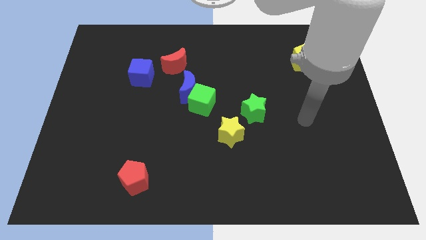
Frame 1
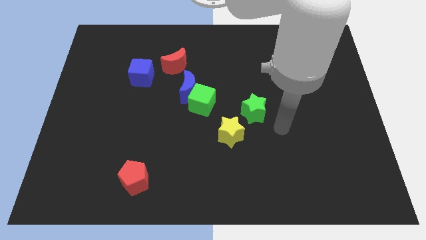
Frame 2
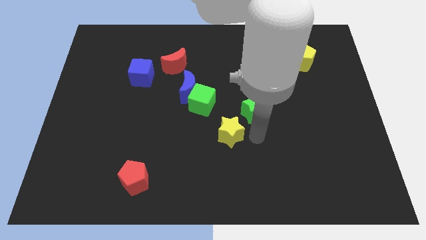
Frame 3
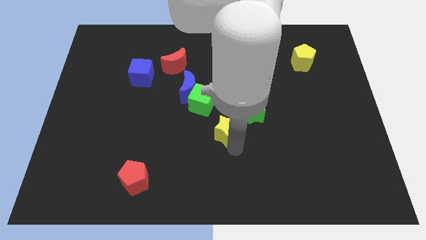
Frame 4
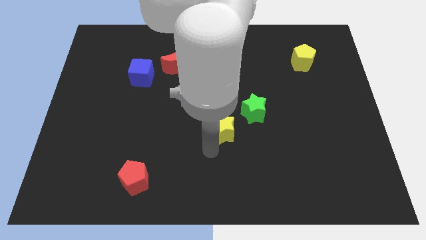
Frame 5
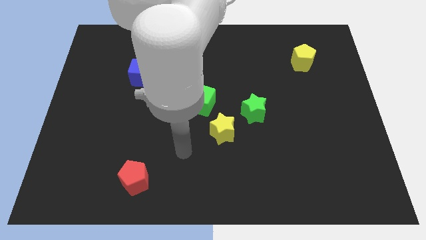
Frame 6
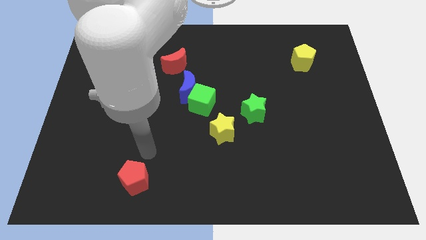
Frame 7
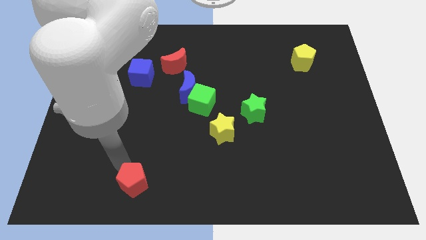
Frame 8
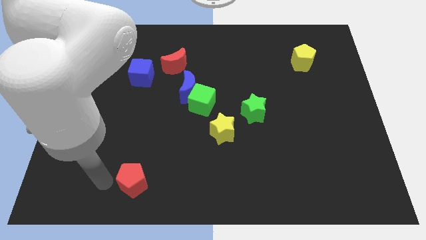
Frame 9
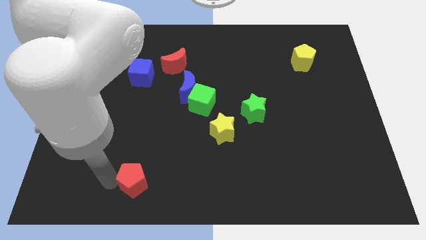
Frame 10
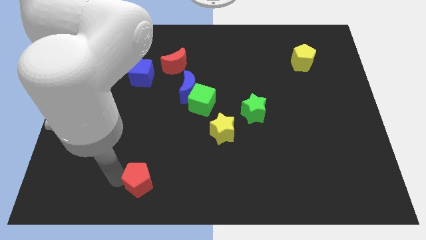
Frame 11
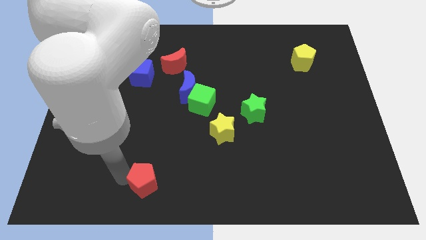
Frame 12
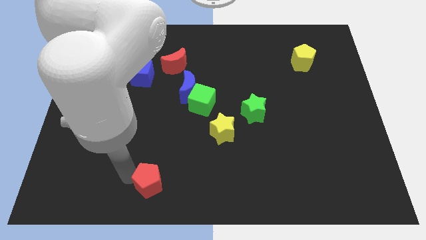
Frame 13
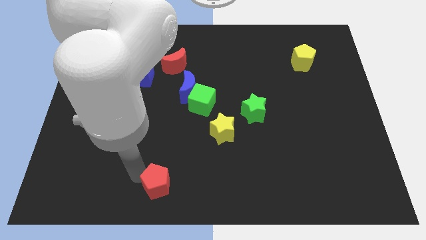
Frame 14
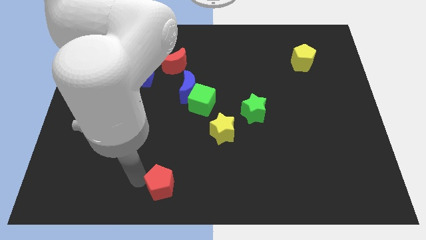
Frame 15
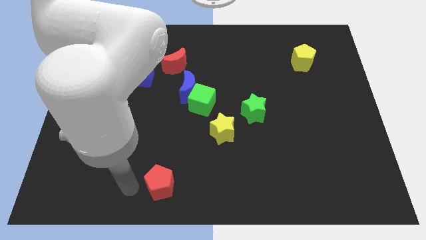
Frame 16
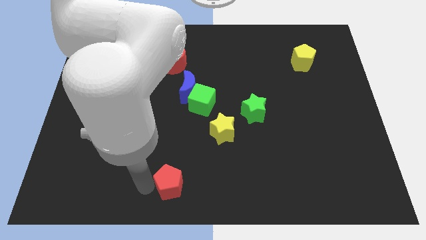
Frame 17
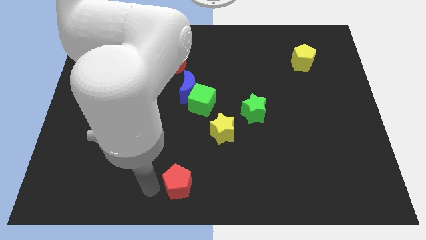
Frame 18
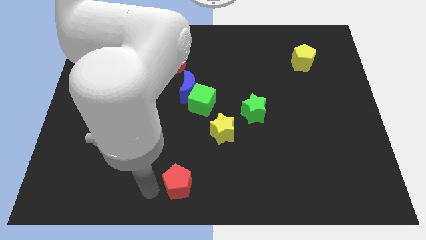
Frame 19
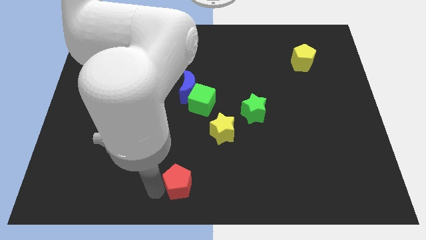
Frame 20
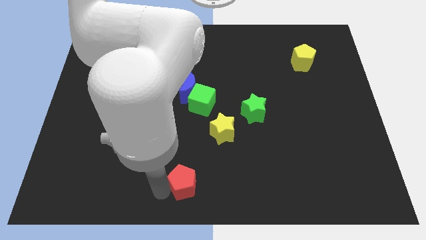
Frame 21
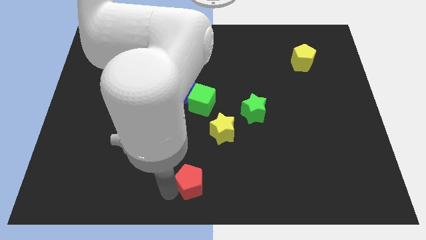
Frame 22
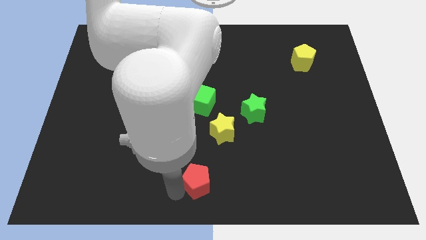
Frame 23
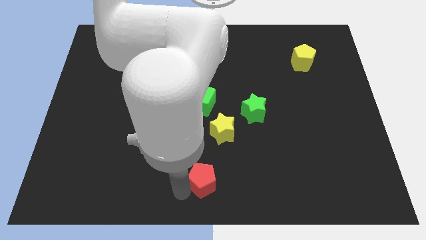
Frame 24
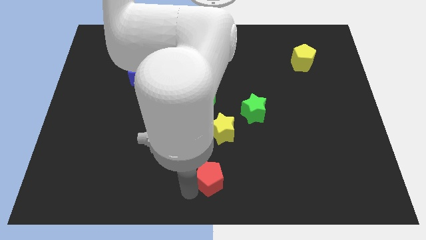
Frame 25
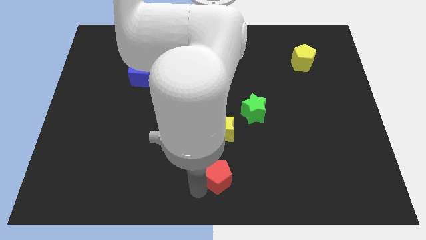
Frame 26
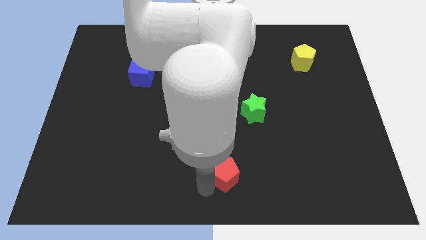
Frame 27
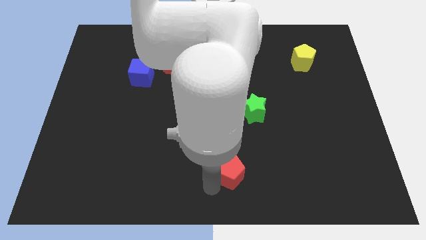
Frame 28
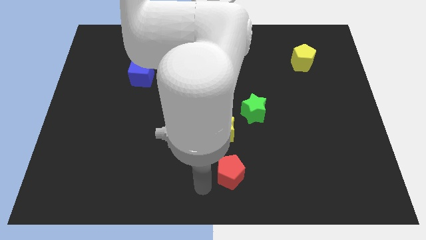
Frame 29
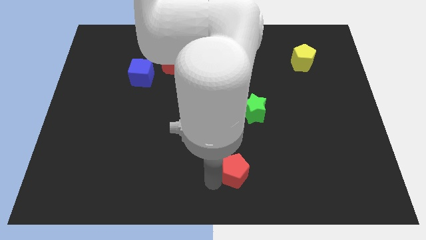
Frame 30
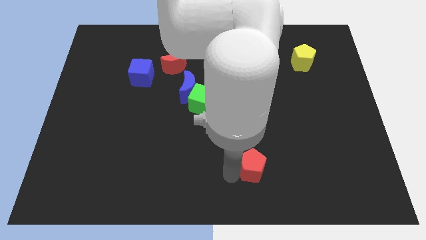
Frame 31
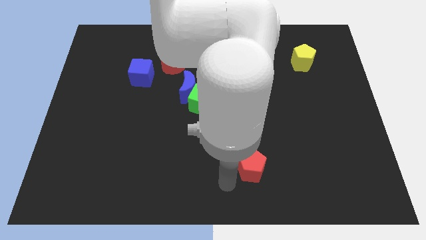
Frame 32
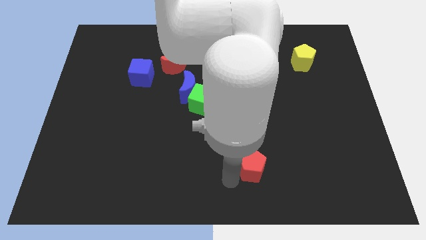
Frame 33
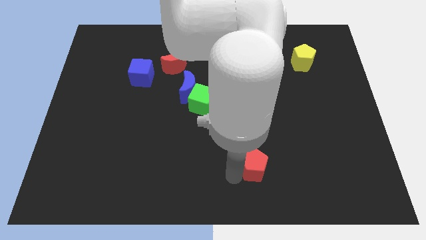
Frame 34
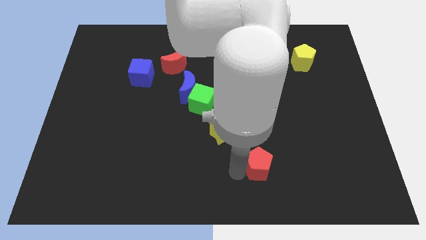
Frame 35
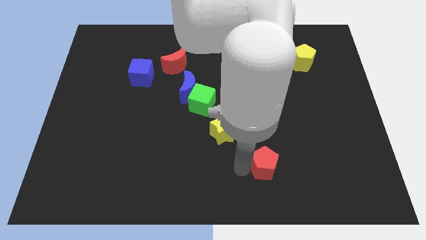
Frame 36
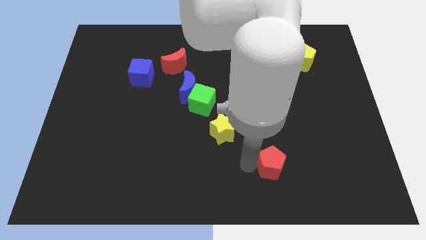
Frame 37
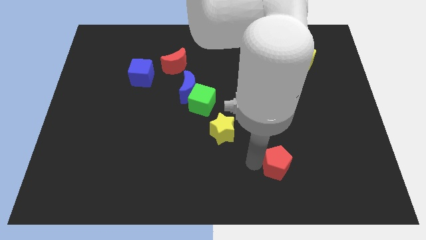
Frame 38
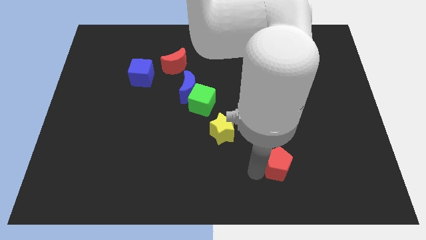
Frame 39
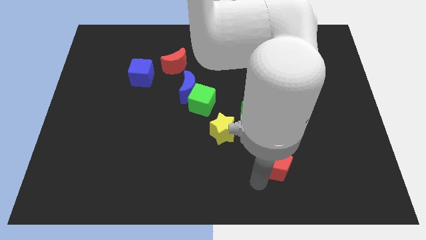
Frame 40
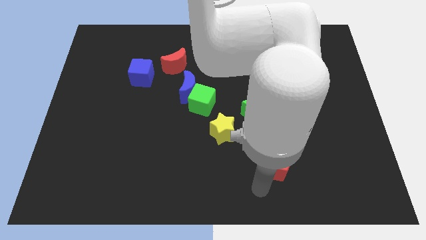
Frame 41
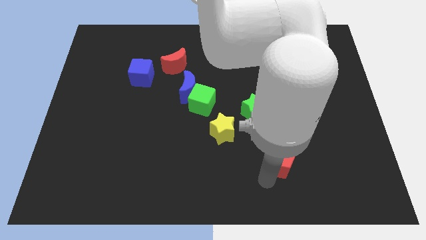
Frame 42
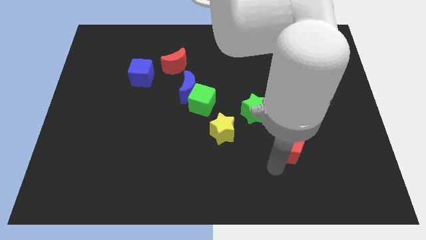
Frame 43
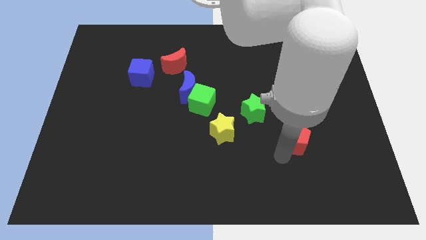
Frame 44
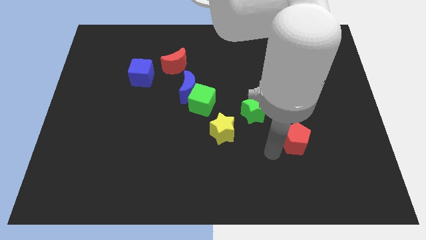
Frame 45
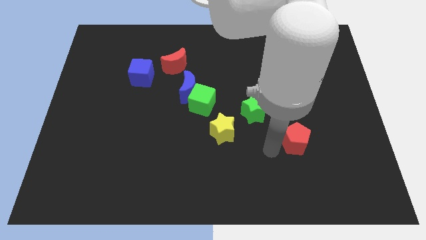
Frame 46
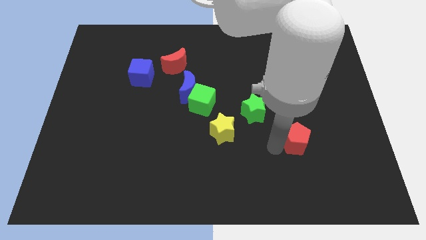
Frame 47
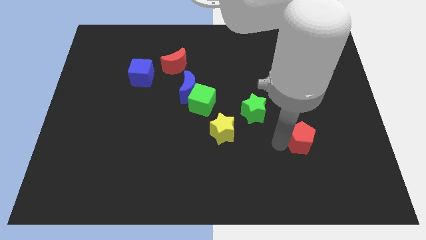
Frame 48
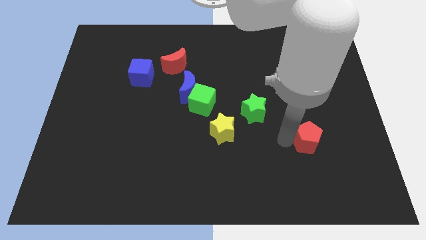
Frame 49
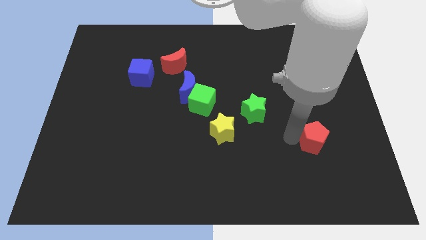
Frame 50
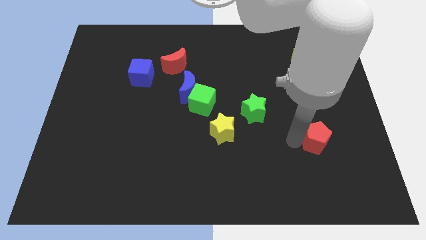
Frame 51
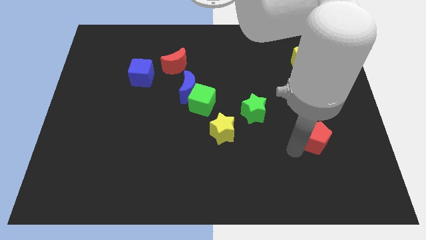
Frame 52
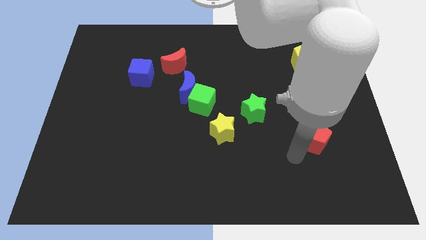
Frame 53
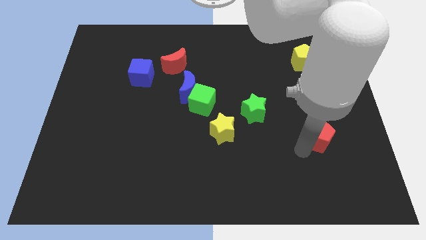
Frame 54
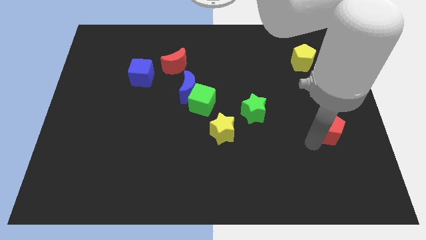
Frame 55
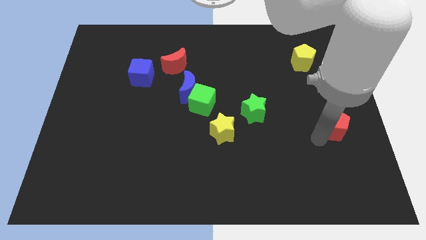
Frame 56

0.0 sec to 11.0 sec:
move the red pentagon to the right side of the board

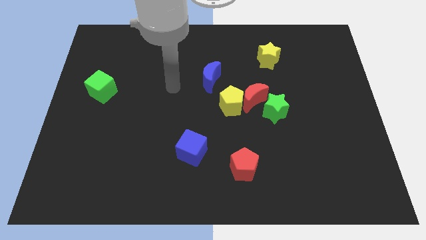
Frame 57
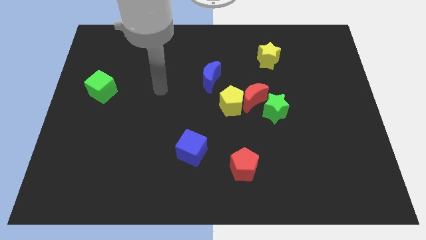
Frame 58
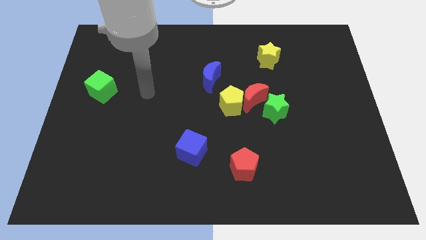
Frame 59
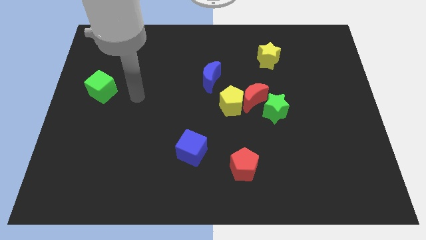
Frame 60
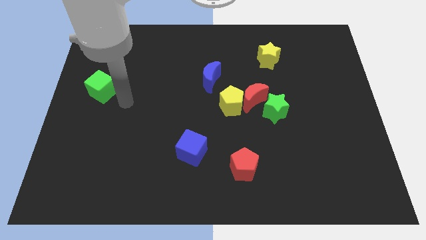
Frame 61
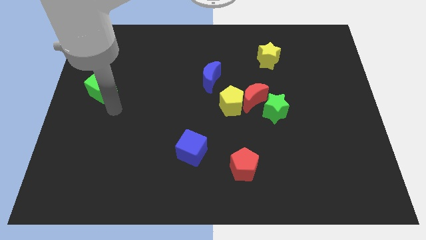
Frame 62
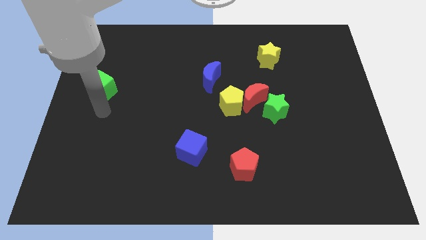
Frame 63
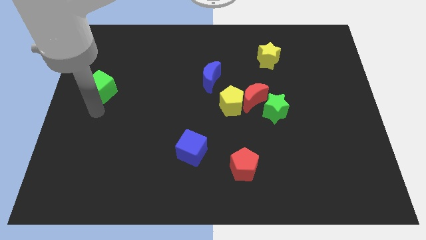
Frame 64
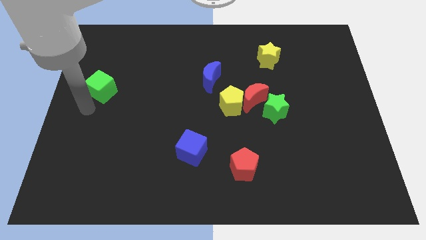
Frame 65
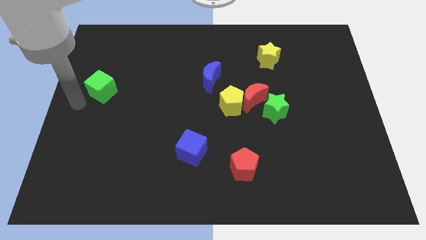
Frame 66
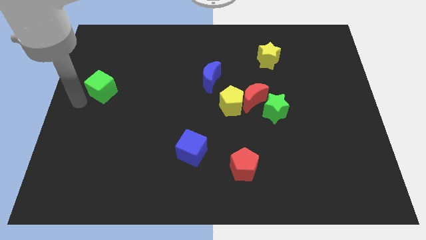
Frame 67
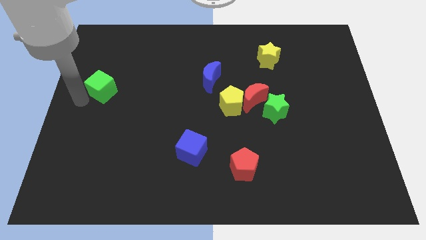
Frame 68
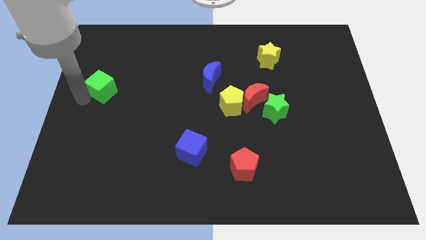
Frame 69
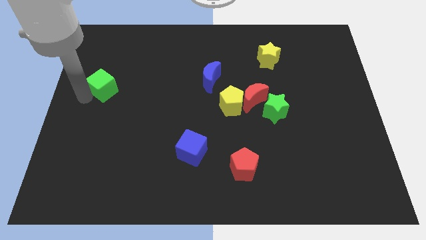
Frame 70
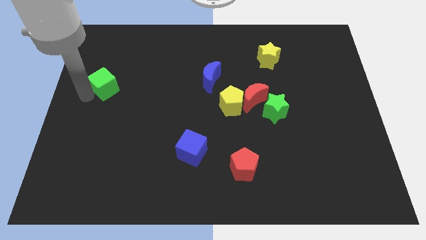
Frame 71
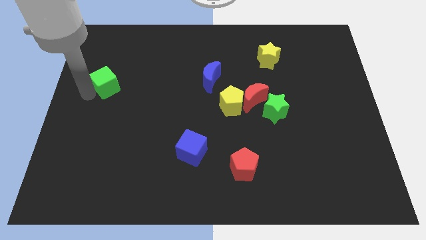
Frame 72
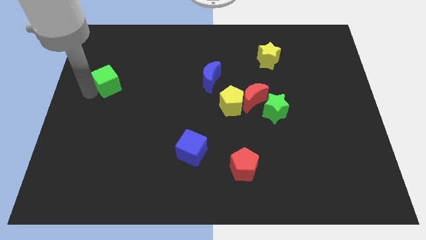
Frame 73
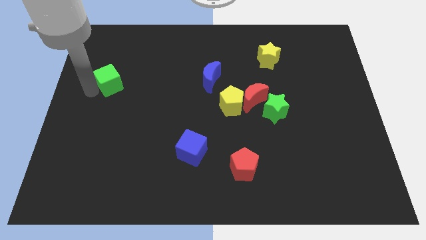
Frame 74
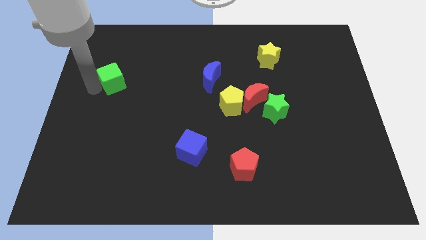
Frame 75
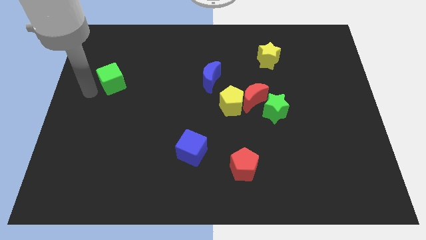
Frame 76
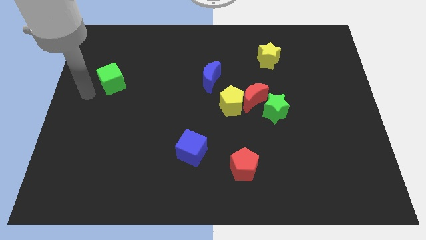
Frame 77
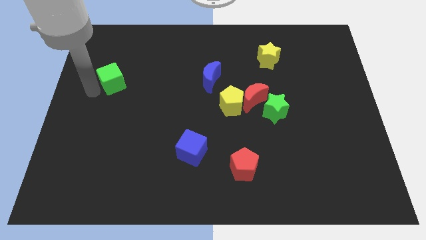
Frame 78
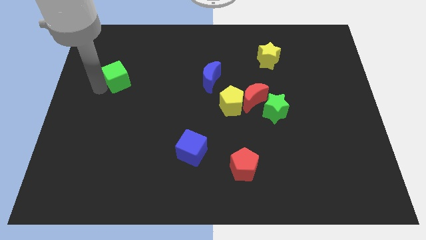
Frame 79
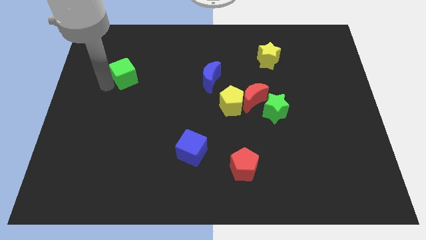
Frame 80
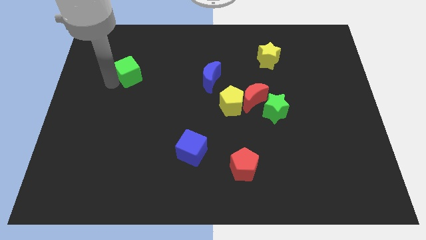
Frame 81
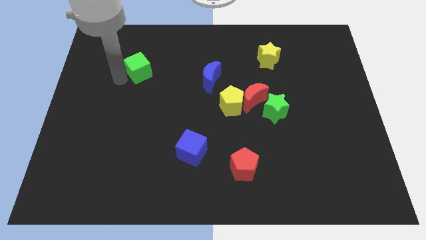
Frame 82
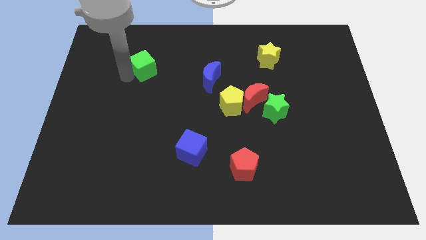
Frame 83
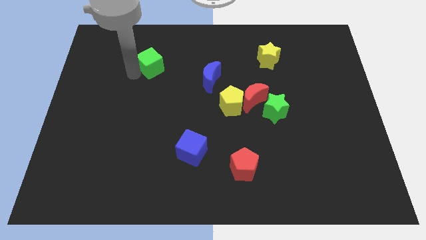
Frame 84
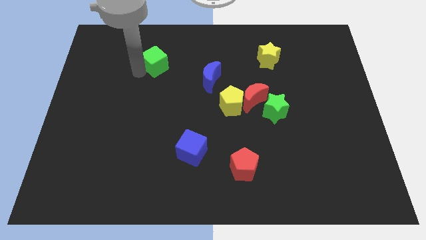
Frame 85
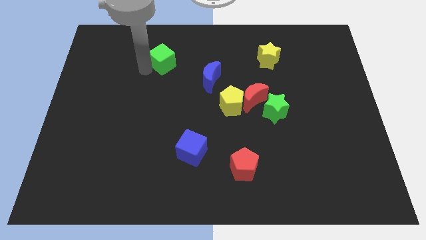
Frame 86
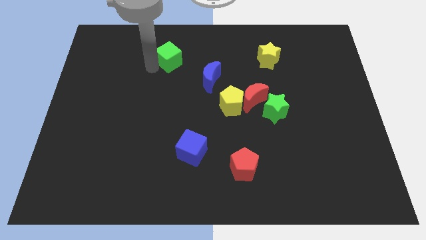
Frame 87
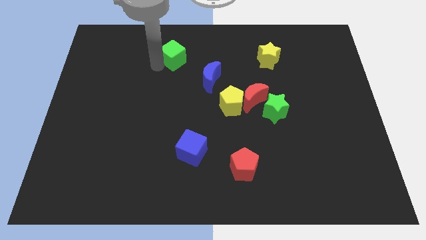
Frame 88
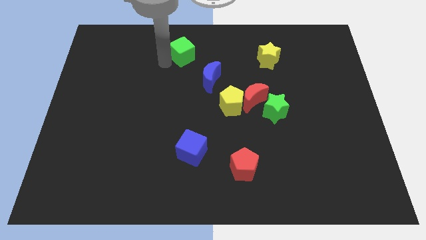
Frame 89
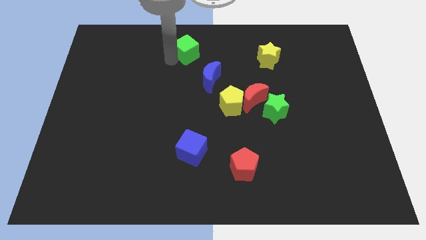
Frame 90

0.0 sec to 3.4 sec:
slide the green cube to the top
